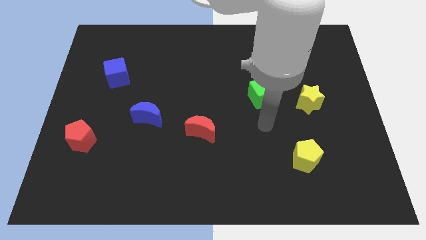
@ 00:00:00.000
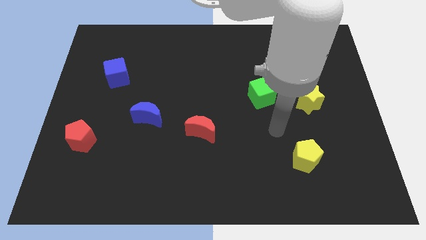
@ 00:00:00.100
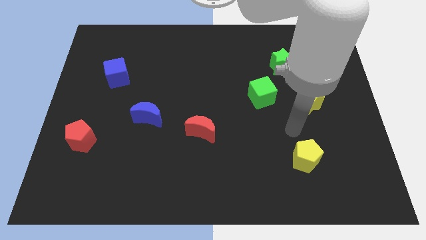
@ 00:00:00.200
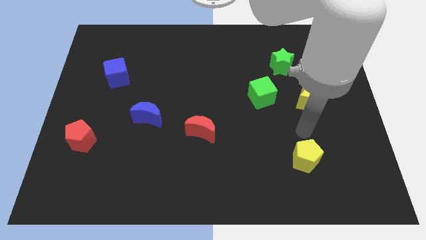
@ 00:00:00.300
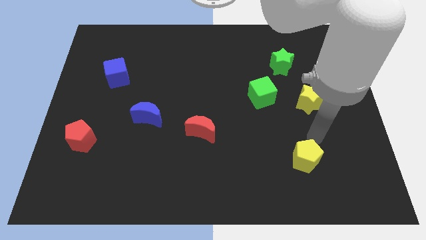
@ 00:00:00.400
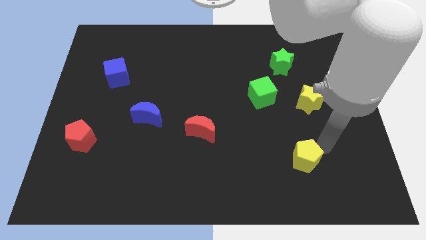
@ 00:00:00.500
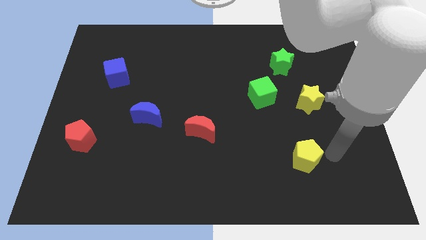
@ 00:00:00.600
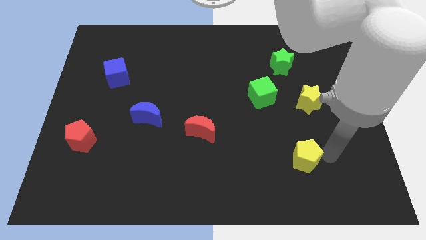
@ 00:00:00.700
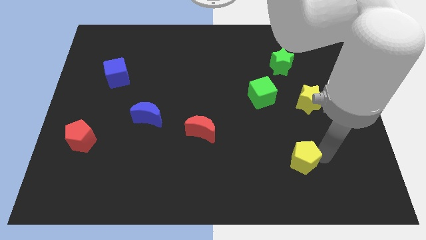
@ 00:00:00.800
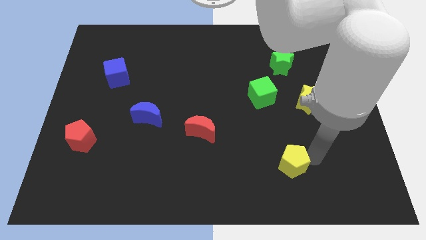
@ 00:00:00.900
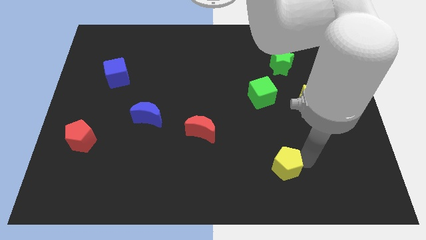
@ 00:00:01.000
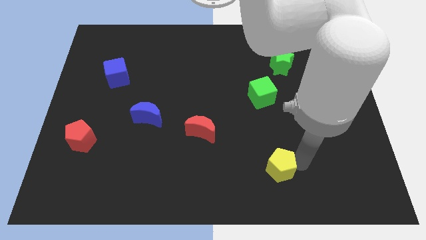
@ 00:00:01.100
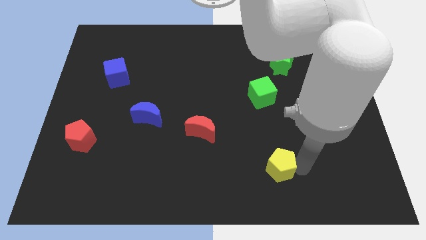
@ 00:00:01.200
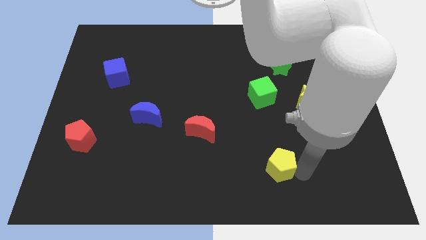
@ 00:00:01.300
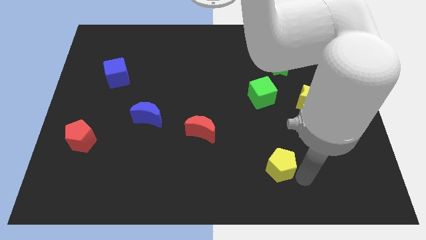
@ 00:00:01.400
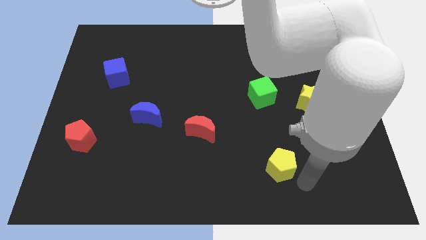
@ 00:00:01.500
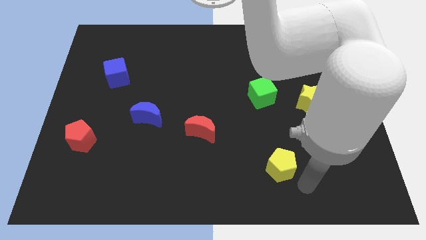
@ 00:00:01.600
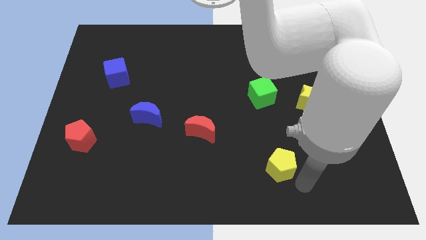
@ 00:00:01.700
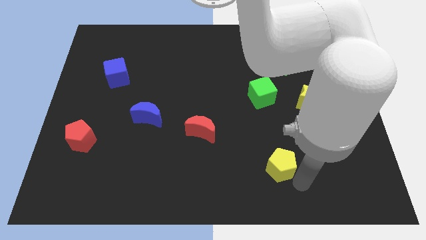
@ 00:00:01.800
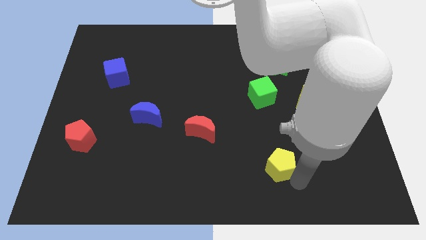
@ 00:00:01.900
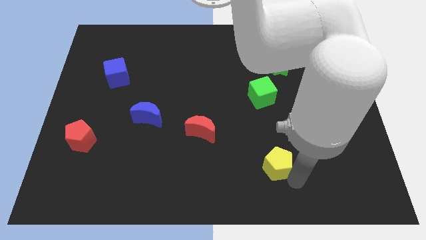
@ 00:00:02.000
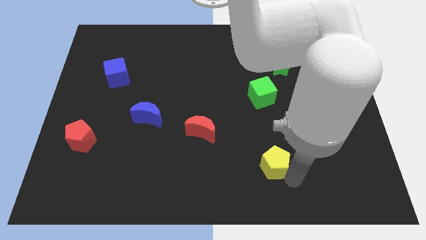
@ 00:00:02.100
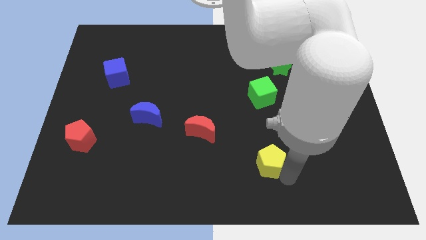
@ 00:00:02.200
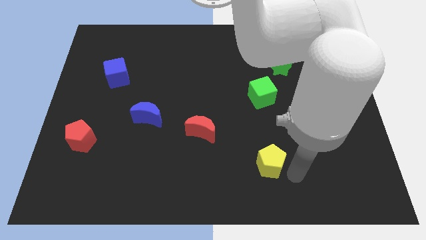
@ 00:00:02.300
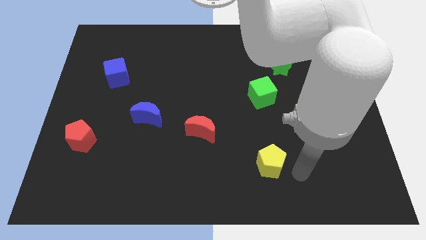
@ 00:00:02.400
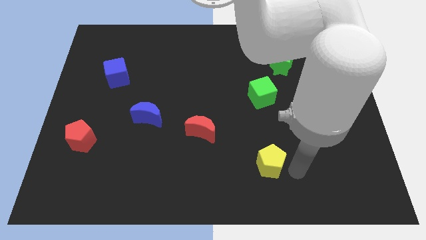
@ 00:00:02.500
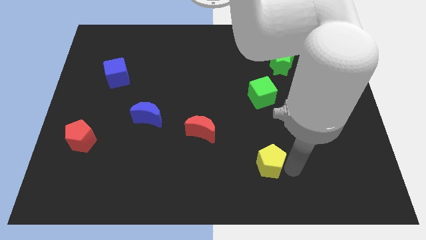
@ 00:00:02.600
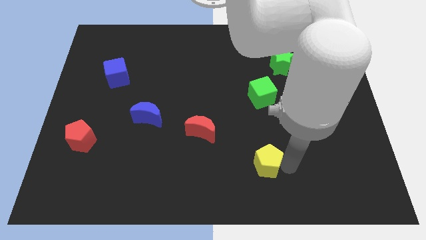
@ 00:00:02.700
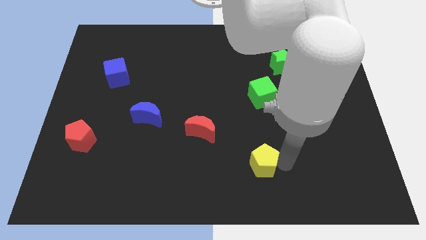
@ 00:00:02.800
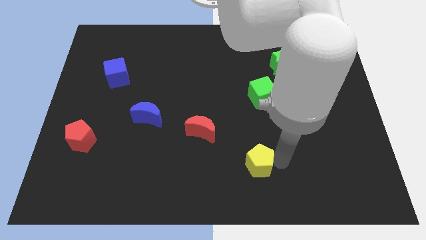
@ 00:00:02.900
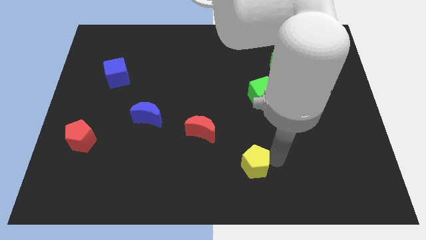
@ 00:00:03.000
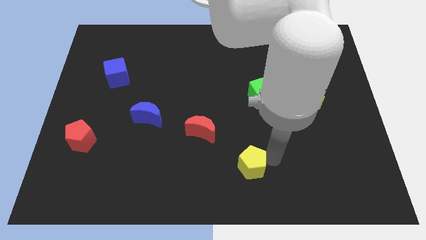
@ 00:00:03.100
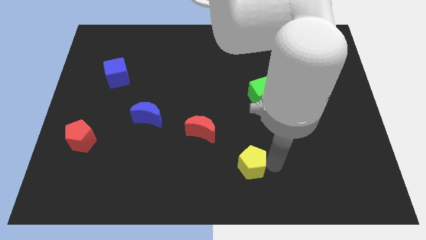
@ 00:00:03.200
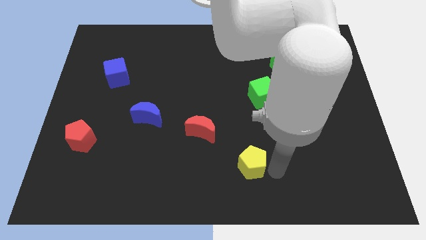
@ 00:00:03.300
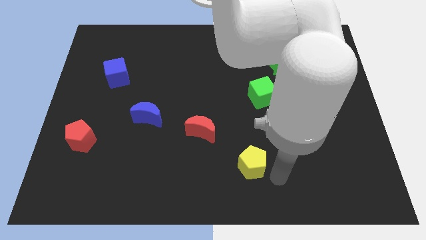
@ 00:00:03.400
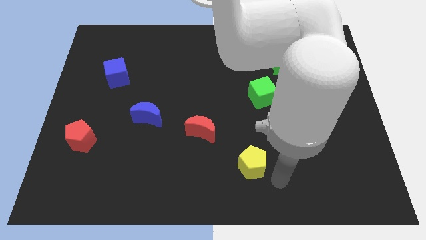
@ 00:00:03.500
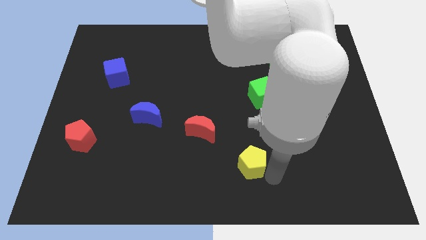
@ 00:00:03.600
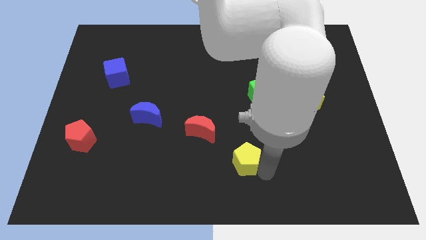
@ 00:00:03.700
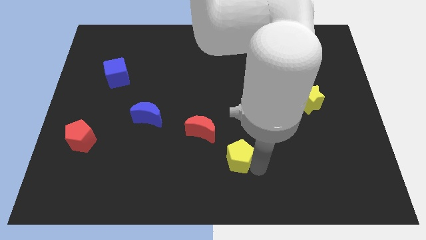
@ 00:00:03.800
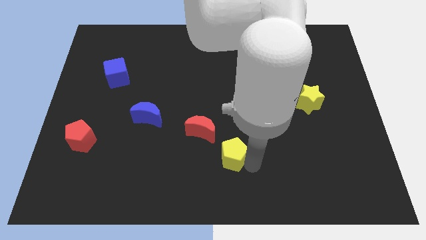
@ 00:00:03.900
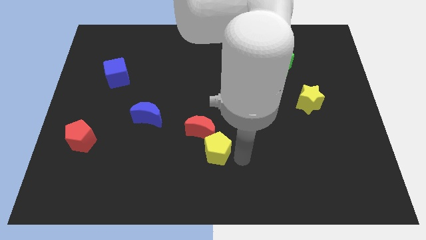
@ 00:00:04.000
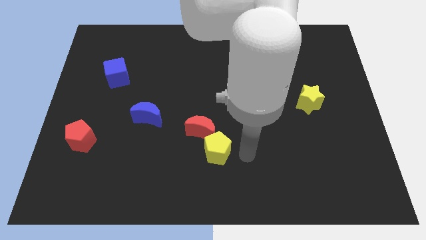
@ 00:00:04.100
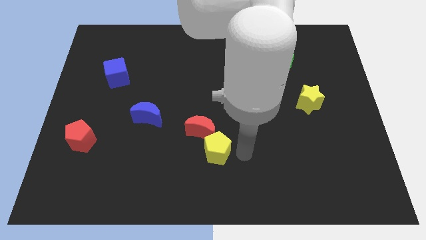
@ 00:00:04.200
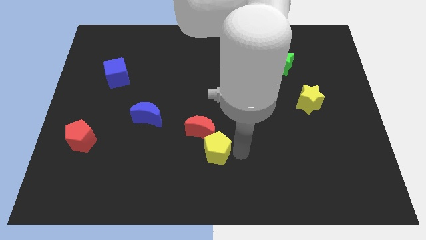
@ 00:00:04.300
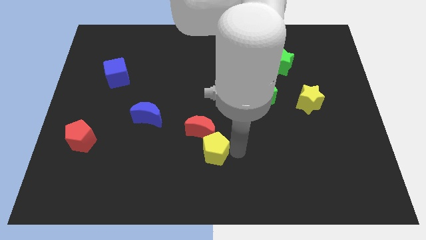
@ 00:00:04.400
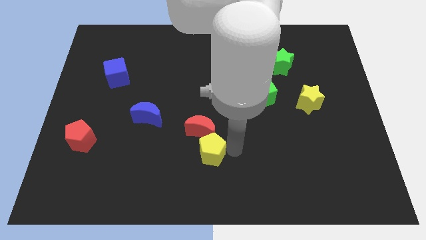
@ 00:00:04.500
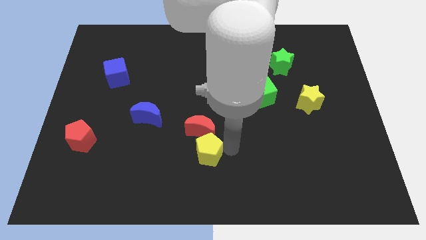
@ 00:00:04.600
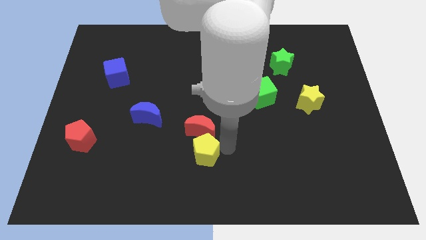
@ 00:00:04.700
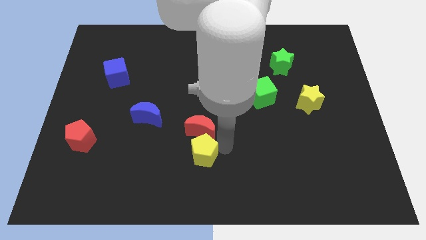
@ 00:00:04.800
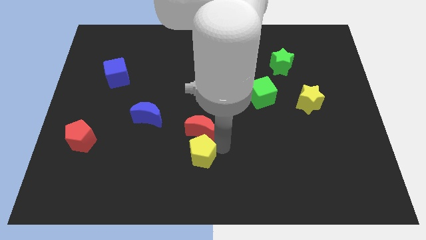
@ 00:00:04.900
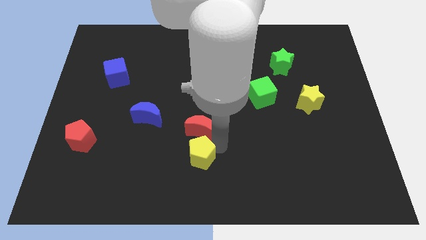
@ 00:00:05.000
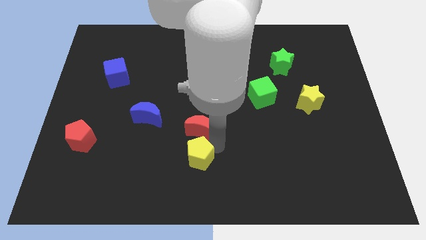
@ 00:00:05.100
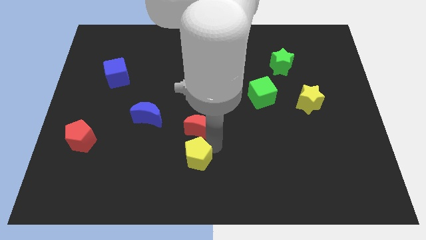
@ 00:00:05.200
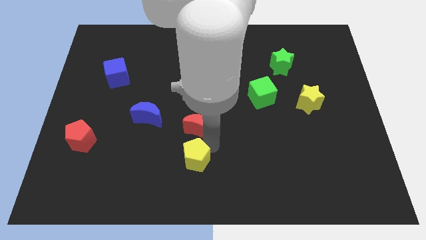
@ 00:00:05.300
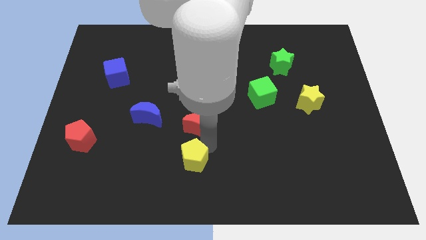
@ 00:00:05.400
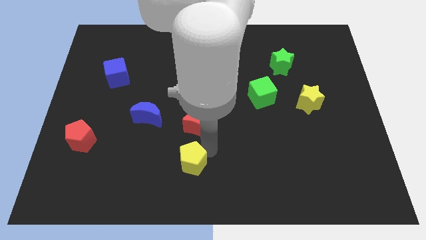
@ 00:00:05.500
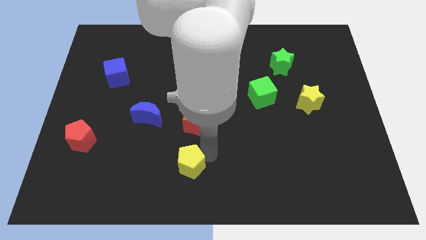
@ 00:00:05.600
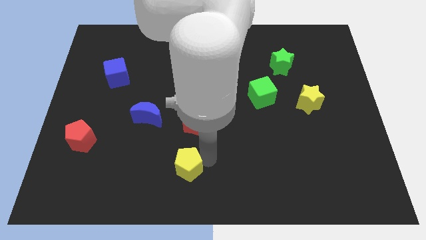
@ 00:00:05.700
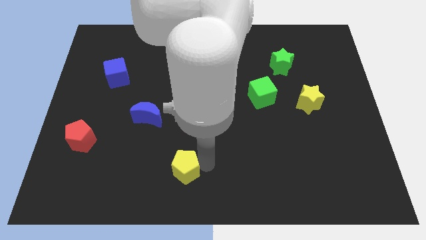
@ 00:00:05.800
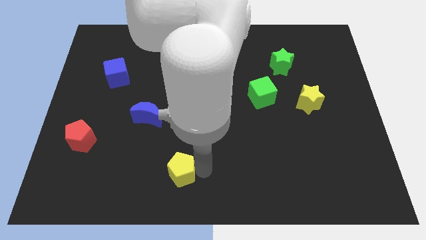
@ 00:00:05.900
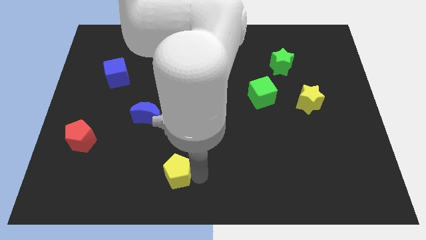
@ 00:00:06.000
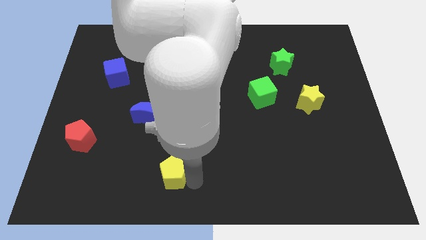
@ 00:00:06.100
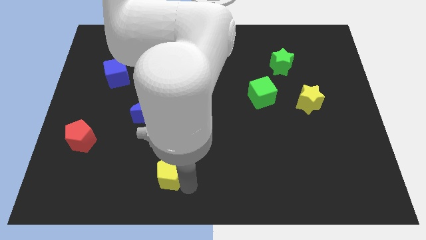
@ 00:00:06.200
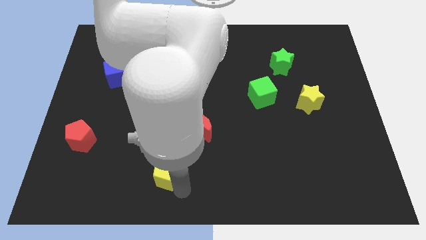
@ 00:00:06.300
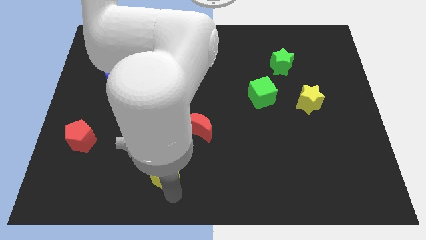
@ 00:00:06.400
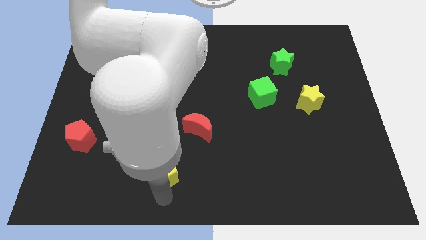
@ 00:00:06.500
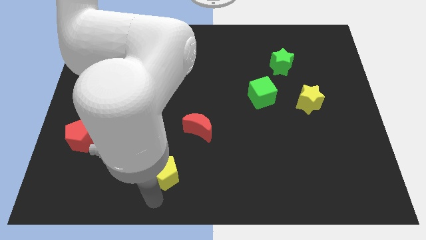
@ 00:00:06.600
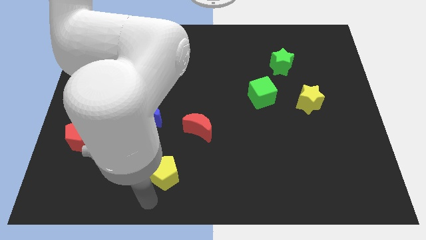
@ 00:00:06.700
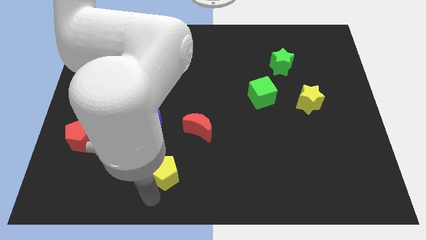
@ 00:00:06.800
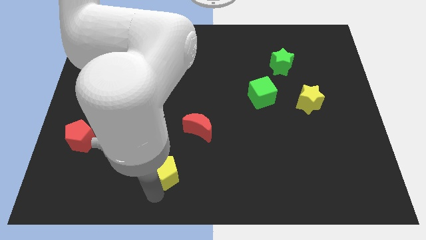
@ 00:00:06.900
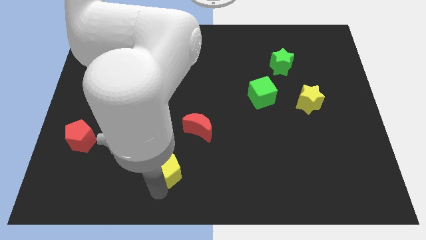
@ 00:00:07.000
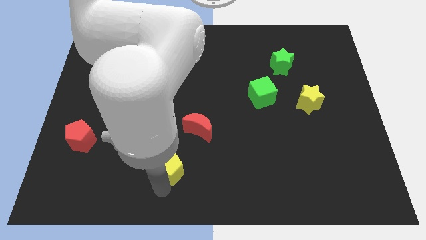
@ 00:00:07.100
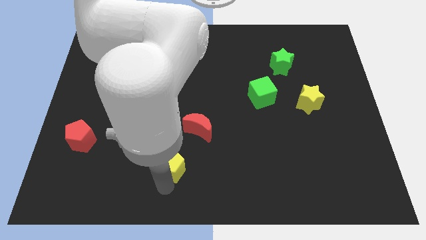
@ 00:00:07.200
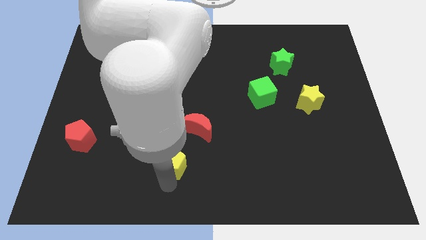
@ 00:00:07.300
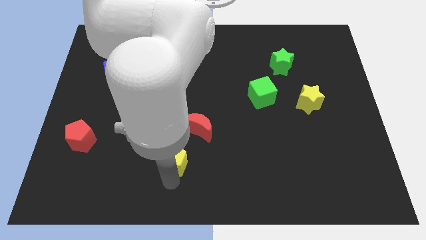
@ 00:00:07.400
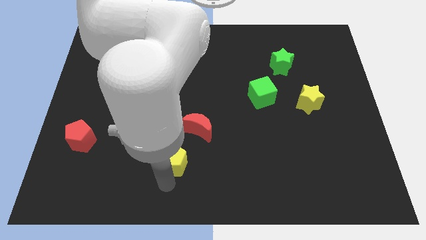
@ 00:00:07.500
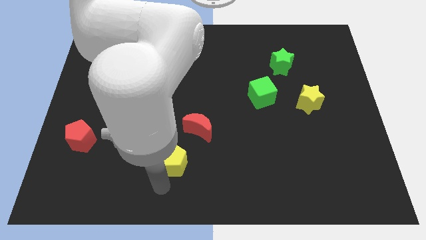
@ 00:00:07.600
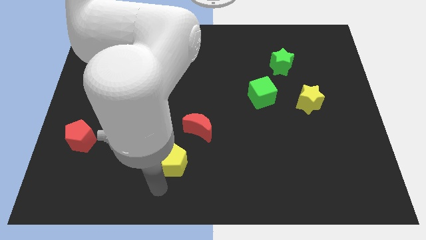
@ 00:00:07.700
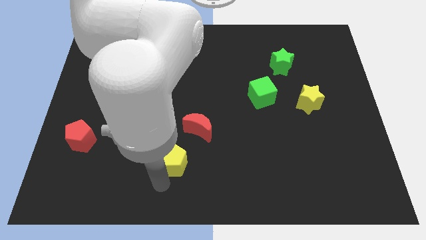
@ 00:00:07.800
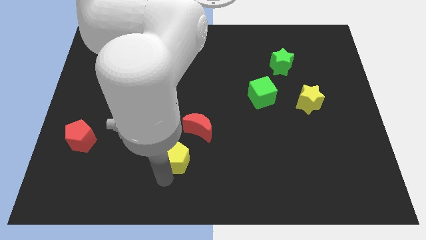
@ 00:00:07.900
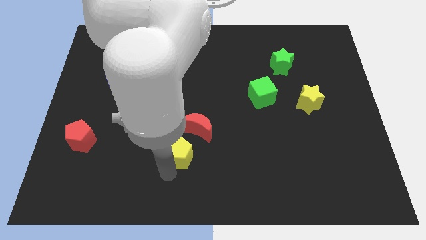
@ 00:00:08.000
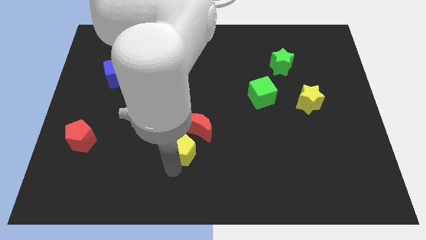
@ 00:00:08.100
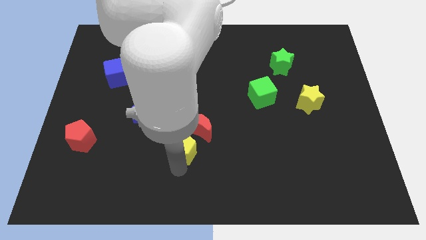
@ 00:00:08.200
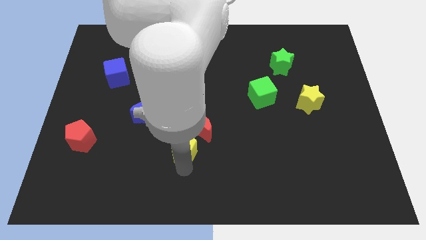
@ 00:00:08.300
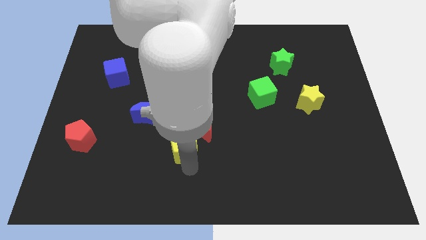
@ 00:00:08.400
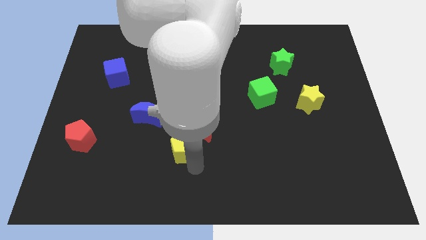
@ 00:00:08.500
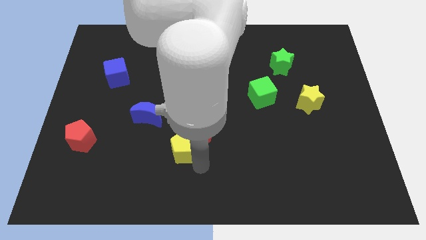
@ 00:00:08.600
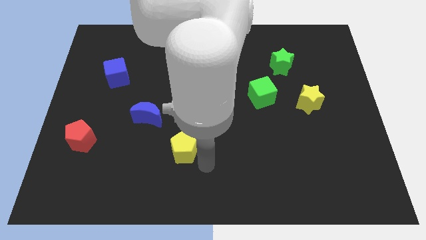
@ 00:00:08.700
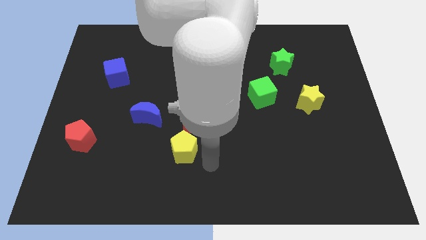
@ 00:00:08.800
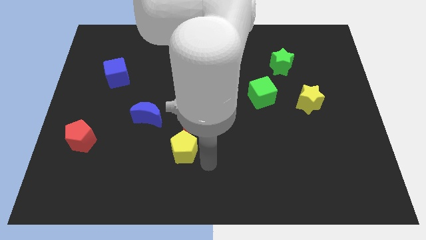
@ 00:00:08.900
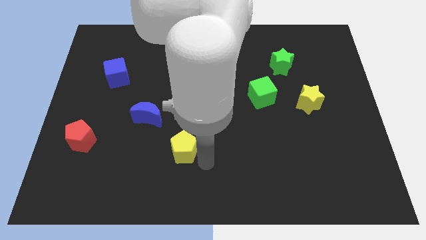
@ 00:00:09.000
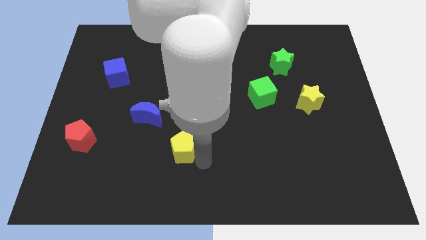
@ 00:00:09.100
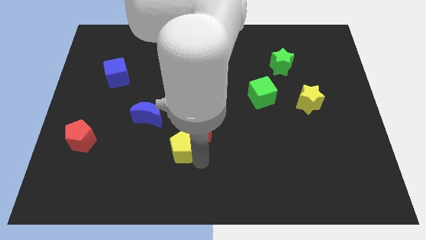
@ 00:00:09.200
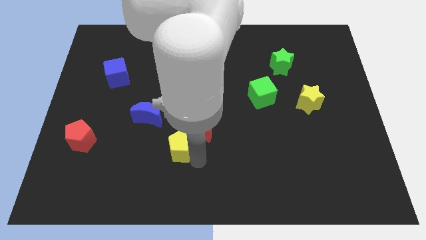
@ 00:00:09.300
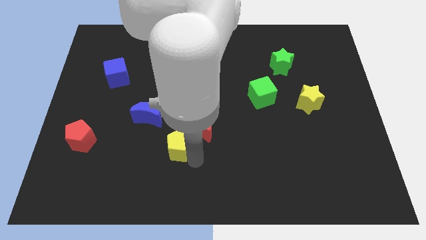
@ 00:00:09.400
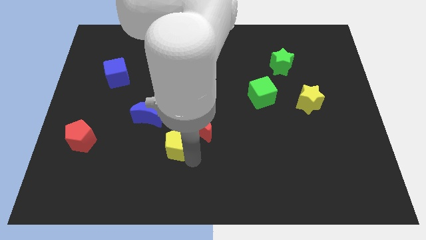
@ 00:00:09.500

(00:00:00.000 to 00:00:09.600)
move the yellow pentagon just left of the red moon
